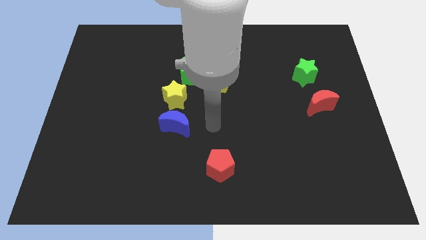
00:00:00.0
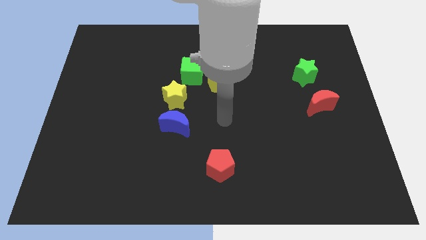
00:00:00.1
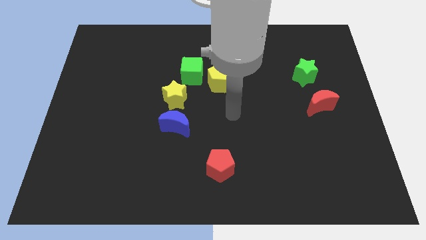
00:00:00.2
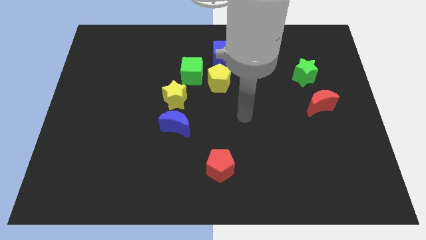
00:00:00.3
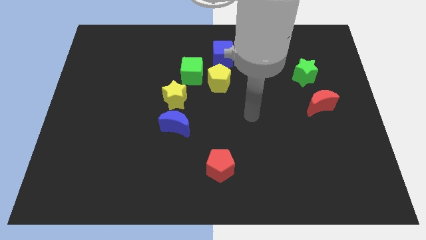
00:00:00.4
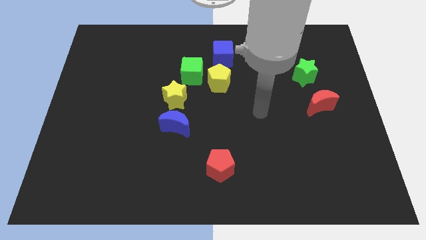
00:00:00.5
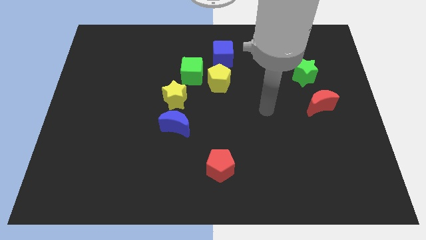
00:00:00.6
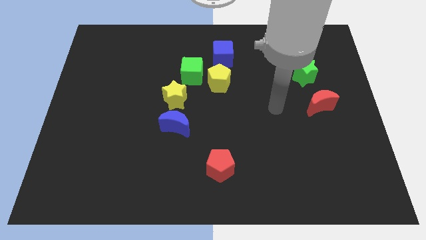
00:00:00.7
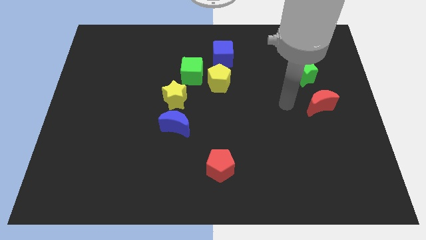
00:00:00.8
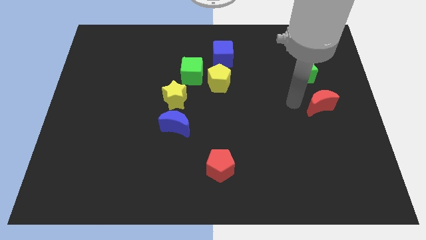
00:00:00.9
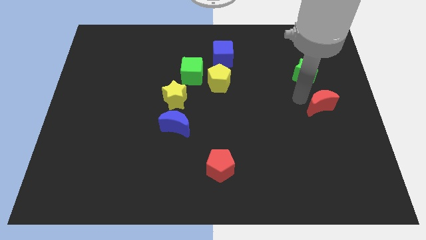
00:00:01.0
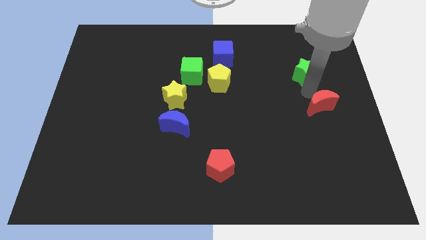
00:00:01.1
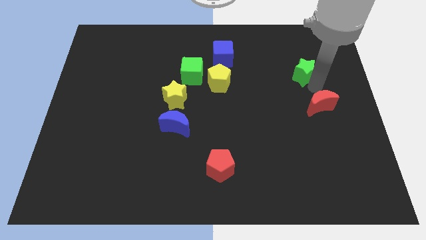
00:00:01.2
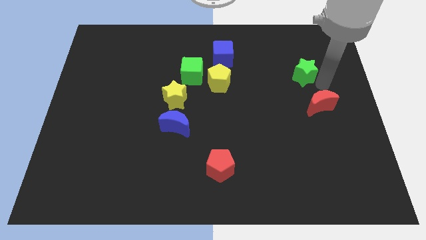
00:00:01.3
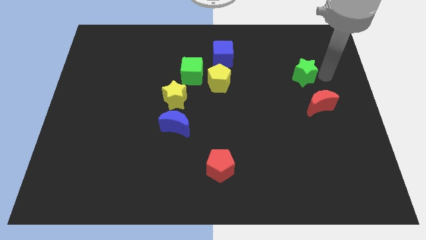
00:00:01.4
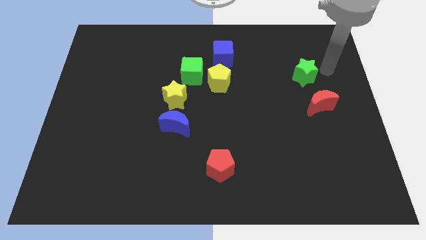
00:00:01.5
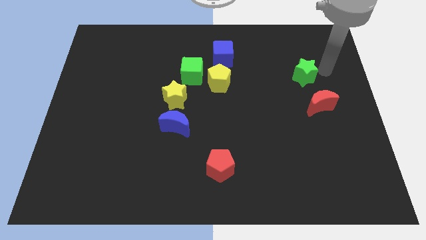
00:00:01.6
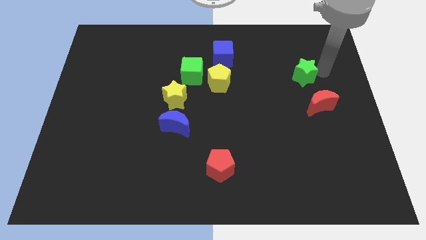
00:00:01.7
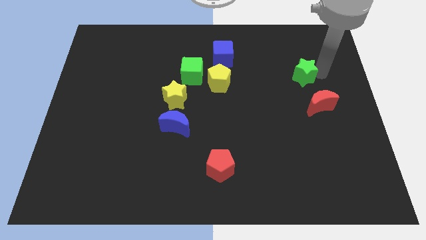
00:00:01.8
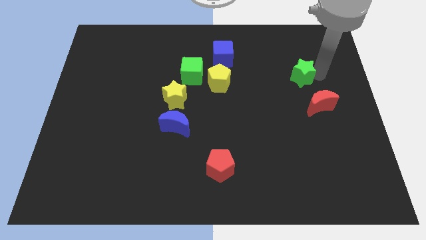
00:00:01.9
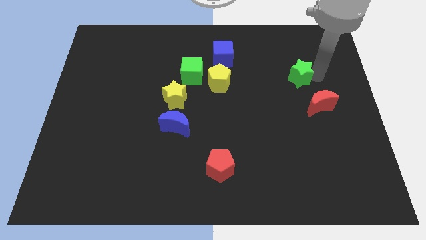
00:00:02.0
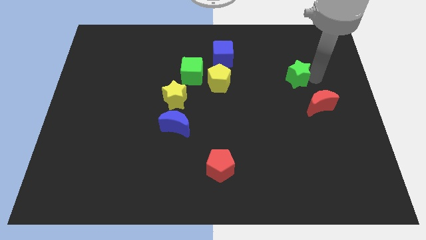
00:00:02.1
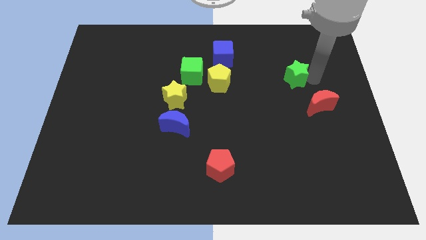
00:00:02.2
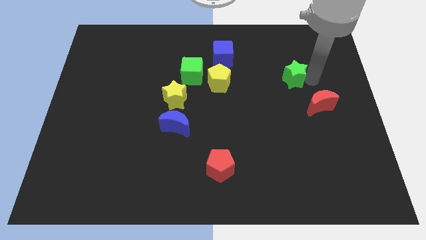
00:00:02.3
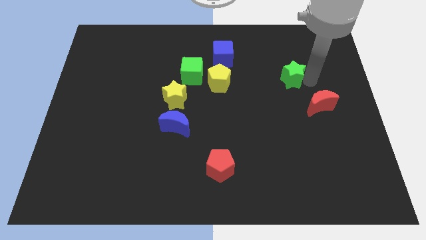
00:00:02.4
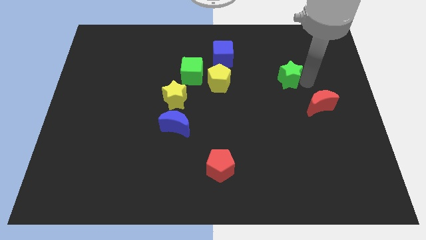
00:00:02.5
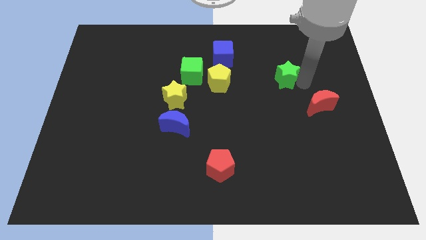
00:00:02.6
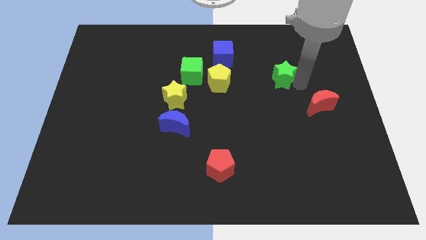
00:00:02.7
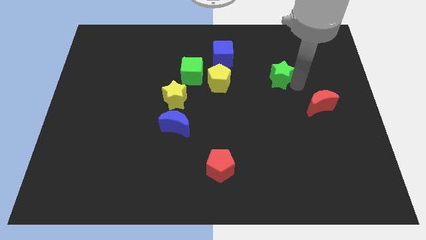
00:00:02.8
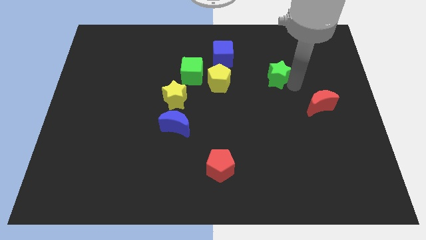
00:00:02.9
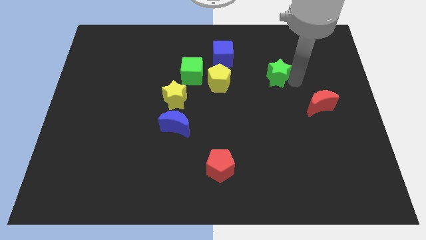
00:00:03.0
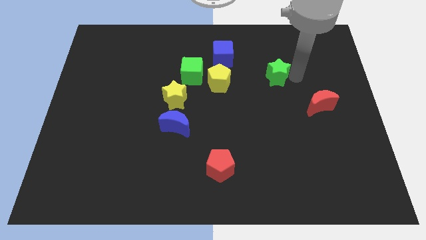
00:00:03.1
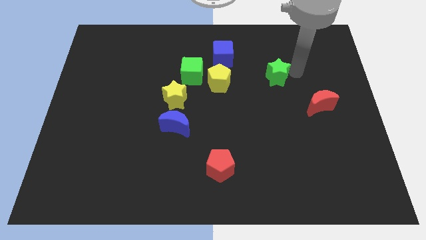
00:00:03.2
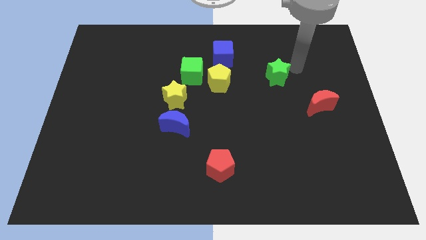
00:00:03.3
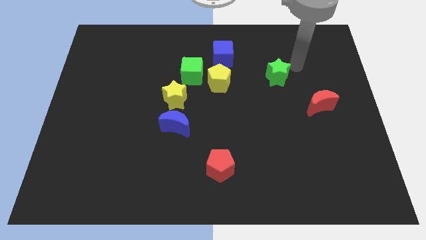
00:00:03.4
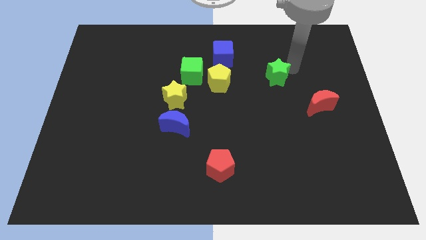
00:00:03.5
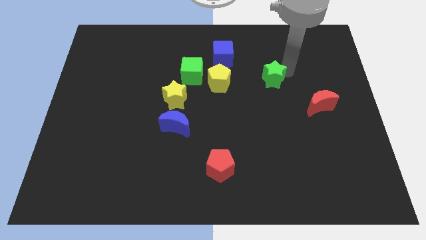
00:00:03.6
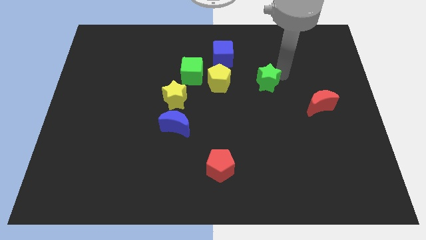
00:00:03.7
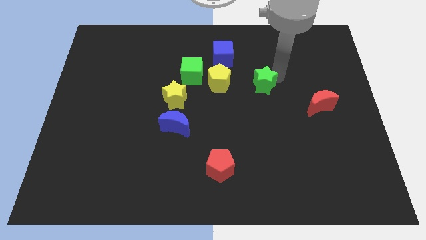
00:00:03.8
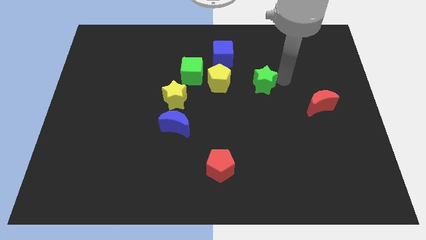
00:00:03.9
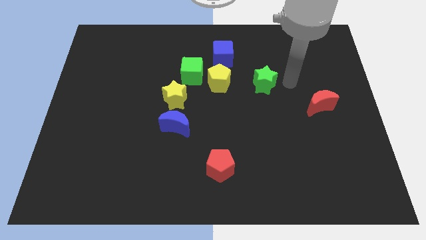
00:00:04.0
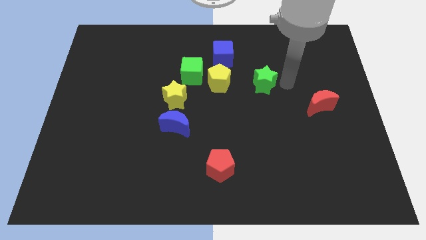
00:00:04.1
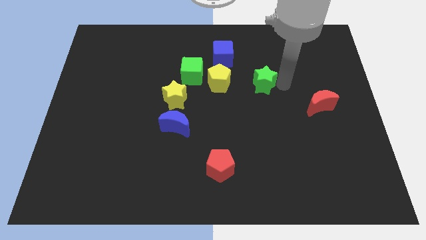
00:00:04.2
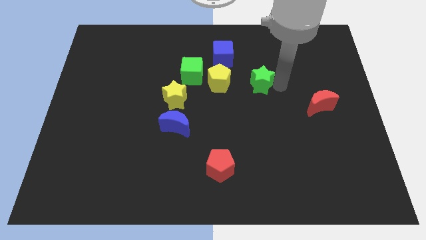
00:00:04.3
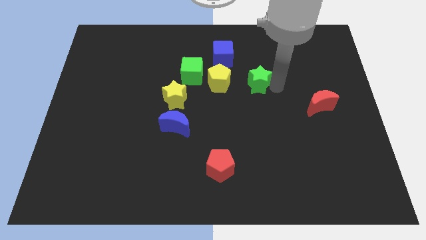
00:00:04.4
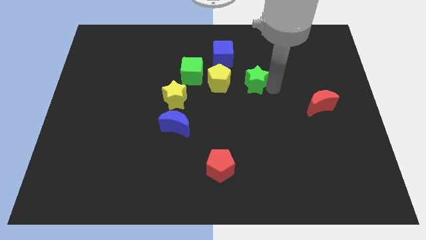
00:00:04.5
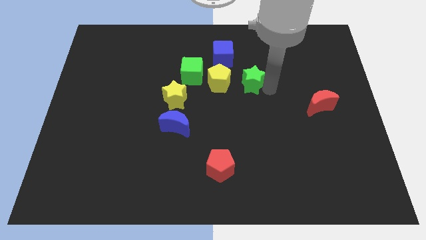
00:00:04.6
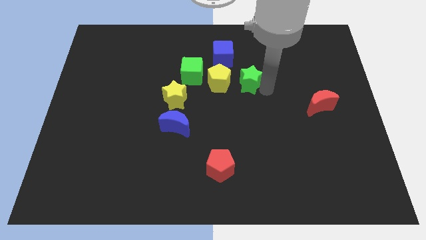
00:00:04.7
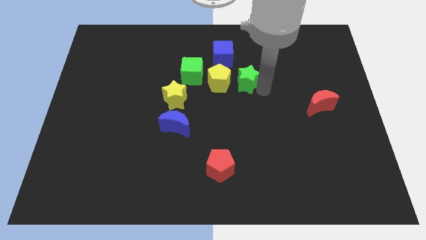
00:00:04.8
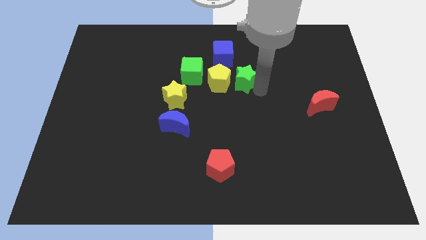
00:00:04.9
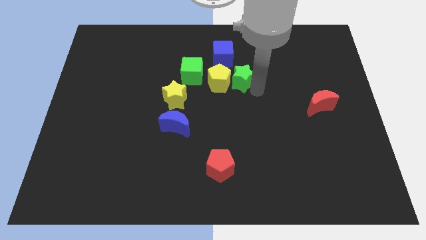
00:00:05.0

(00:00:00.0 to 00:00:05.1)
put the green star below the blue cube

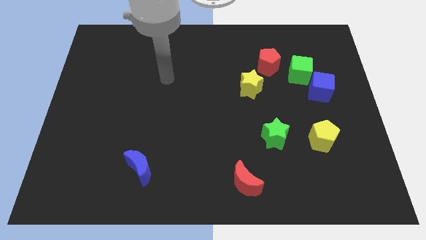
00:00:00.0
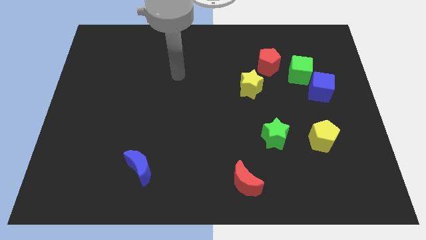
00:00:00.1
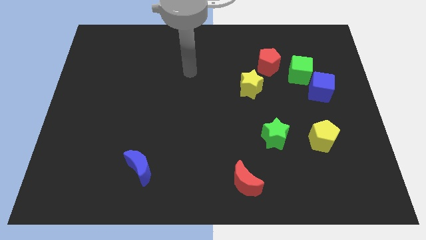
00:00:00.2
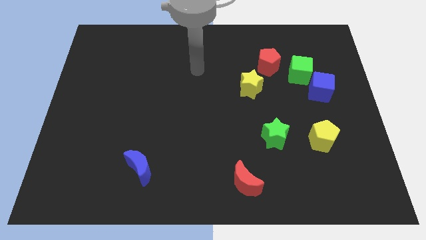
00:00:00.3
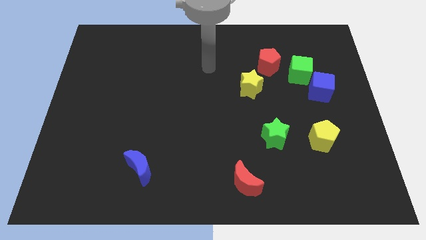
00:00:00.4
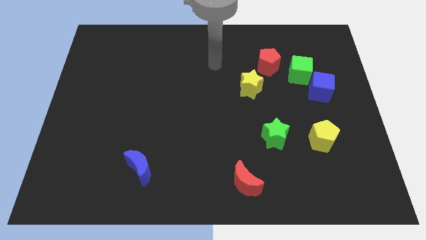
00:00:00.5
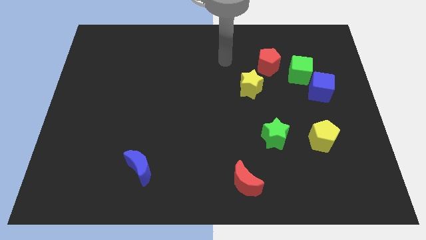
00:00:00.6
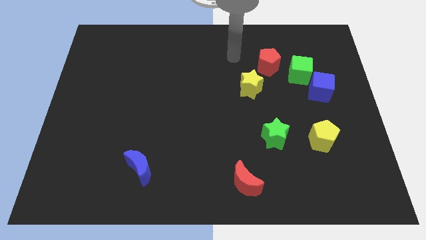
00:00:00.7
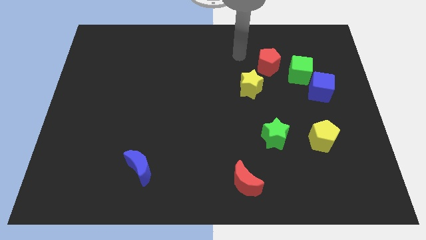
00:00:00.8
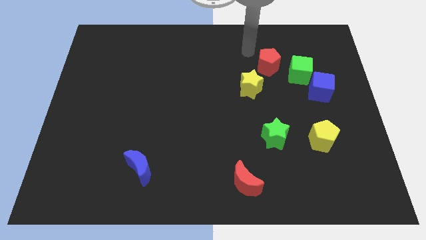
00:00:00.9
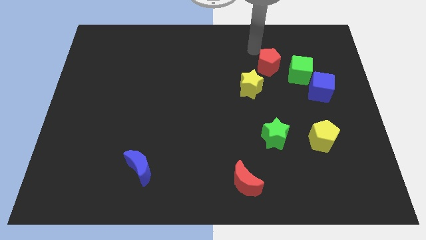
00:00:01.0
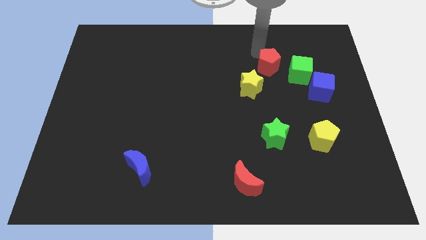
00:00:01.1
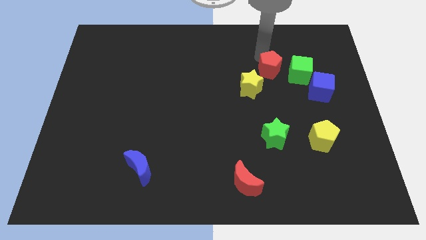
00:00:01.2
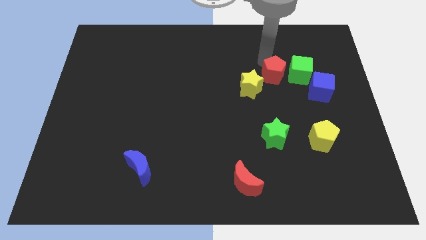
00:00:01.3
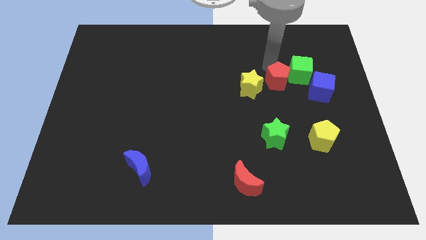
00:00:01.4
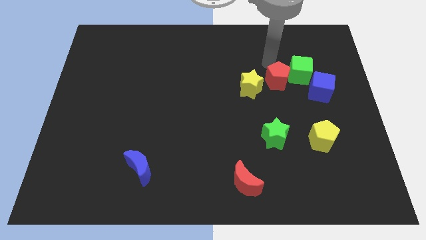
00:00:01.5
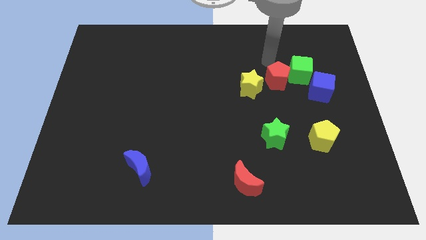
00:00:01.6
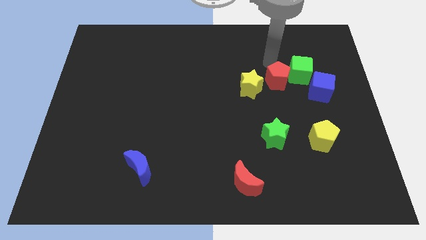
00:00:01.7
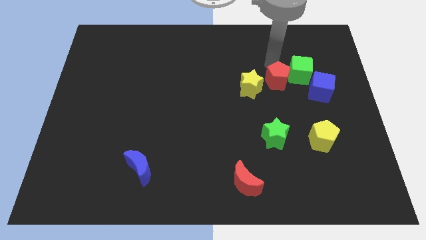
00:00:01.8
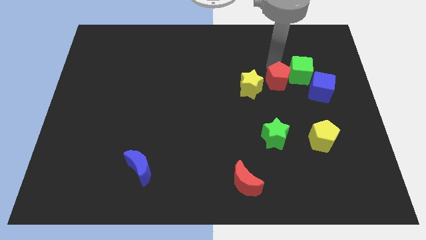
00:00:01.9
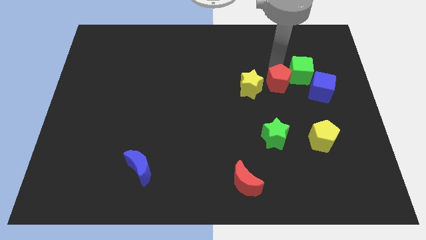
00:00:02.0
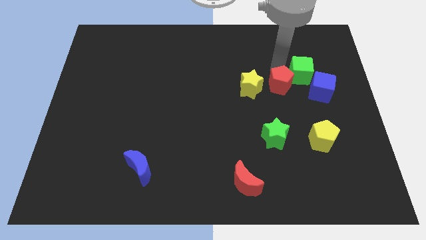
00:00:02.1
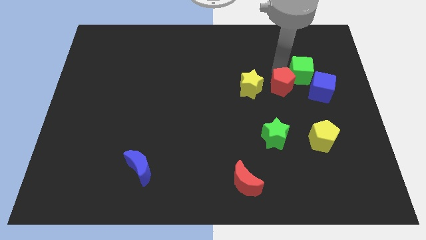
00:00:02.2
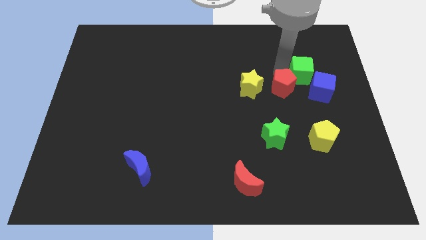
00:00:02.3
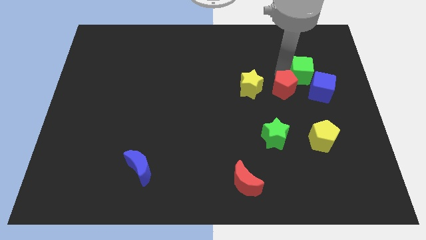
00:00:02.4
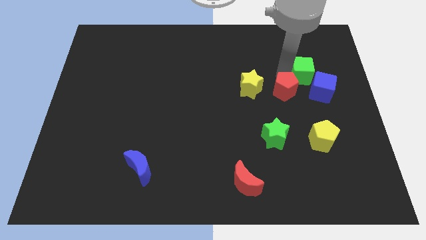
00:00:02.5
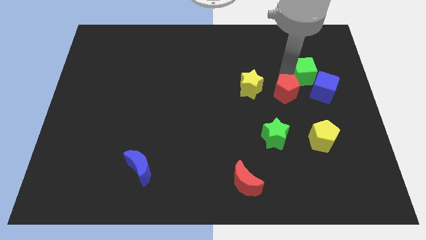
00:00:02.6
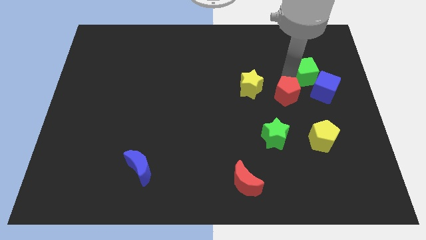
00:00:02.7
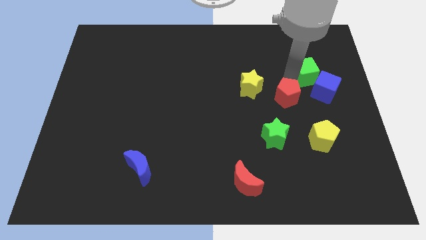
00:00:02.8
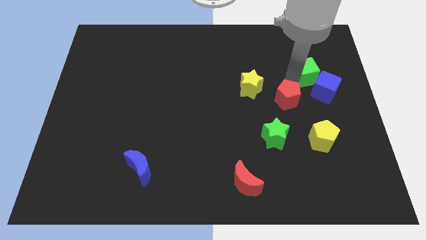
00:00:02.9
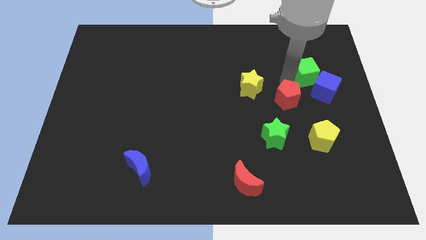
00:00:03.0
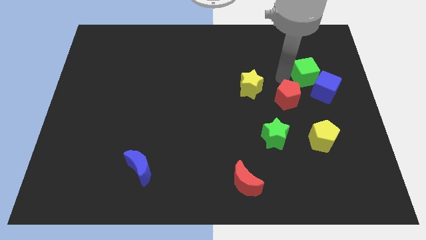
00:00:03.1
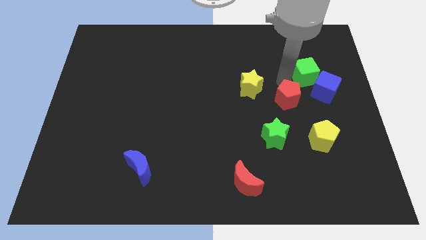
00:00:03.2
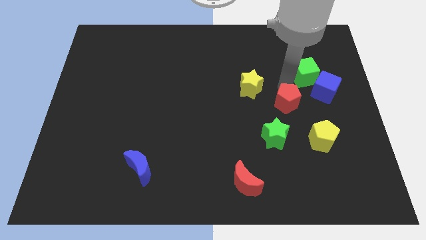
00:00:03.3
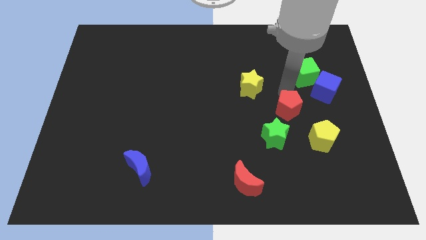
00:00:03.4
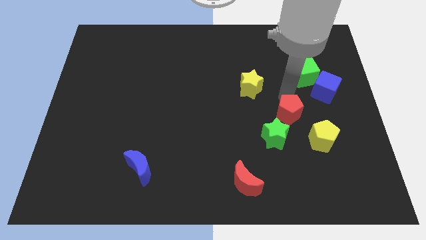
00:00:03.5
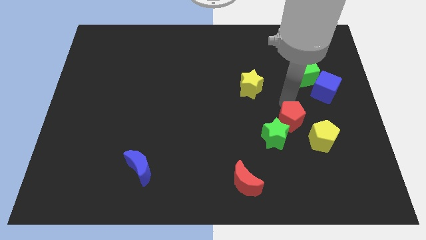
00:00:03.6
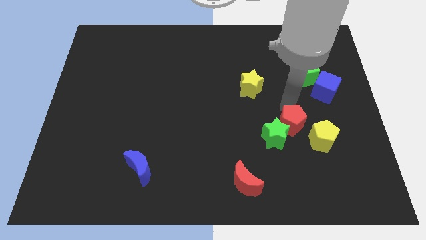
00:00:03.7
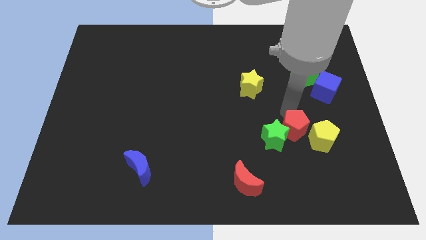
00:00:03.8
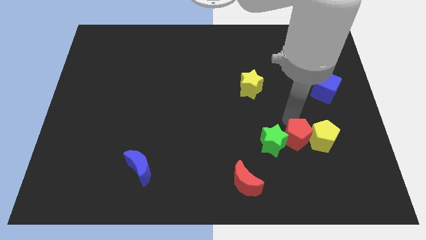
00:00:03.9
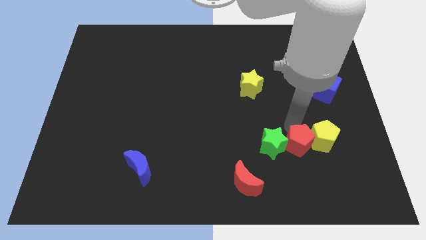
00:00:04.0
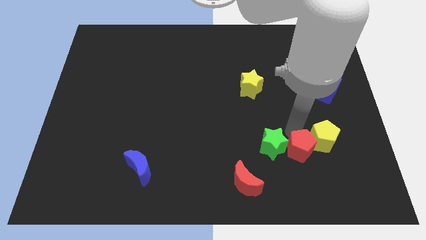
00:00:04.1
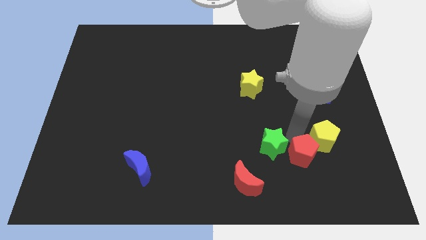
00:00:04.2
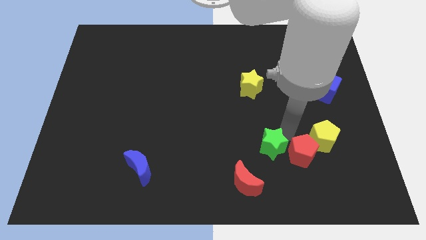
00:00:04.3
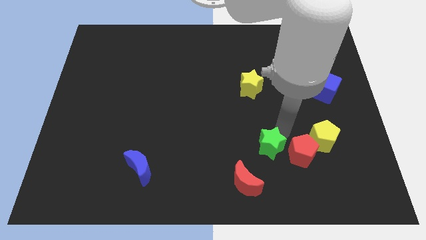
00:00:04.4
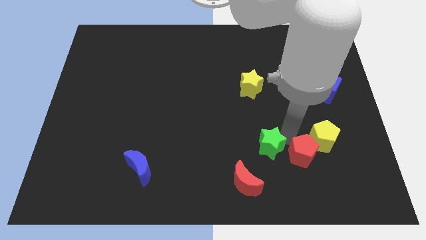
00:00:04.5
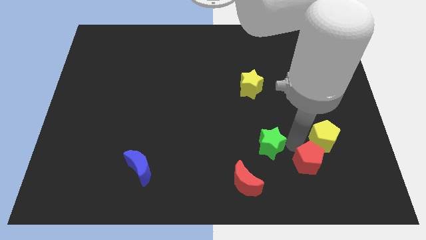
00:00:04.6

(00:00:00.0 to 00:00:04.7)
put the red pentagon to the bottom side of the yellow pentagon
